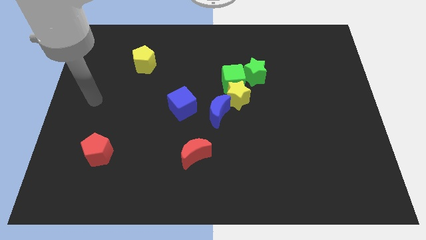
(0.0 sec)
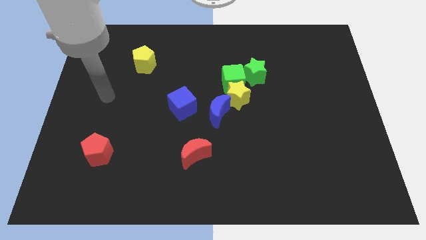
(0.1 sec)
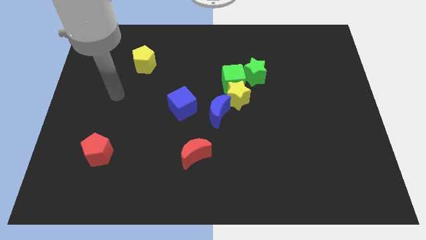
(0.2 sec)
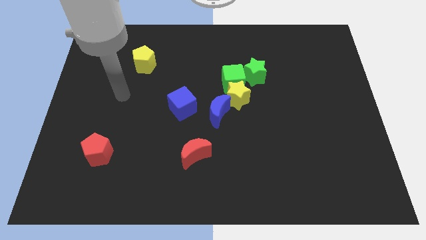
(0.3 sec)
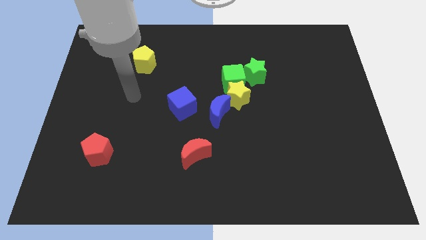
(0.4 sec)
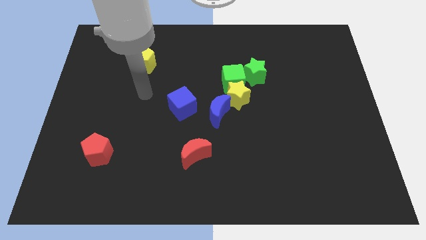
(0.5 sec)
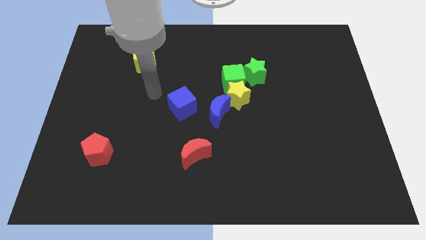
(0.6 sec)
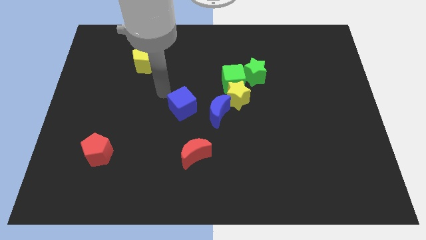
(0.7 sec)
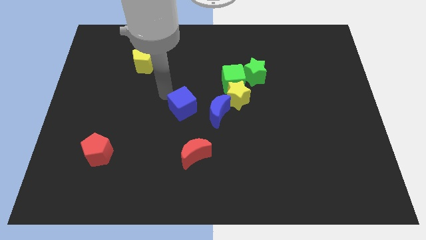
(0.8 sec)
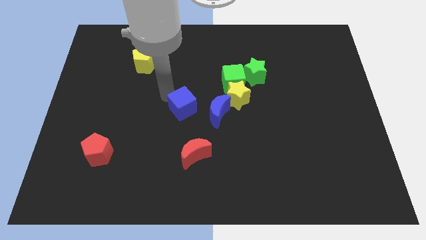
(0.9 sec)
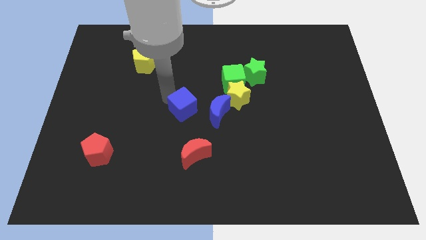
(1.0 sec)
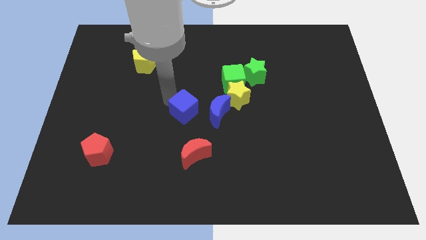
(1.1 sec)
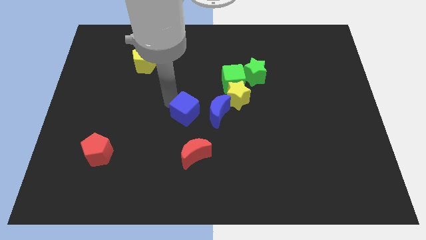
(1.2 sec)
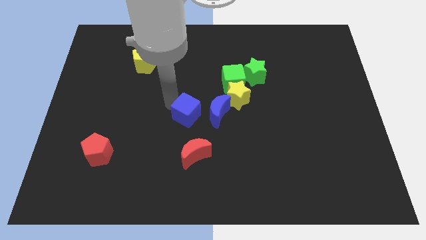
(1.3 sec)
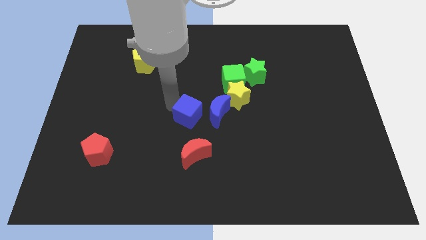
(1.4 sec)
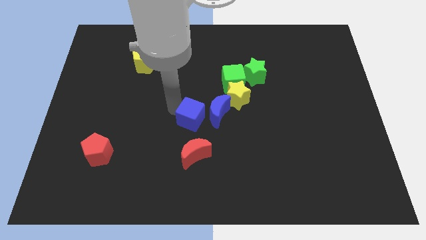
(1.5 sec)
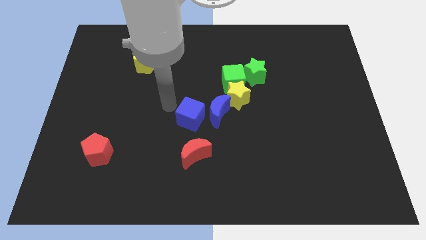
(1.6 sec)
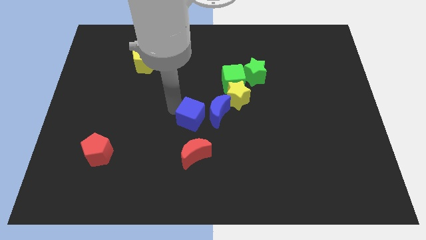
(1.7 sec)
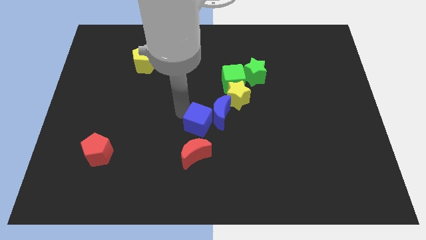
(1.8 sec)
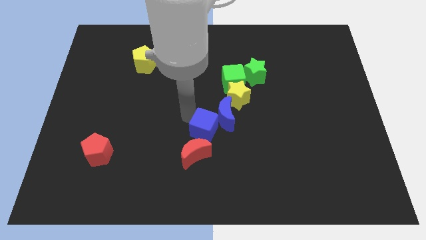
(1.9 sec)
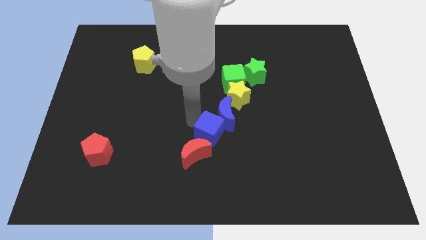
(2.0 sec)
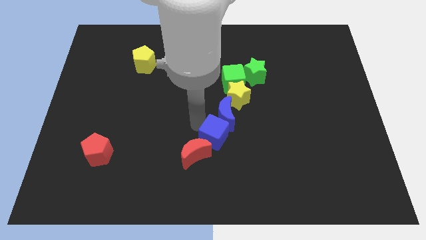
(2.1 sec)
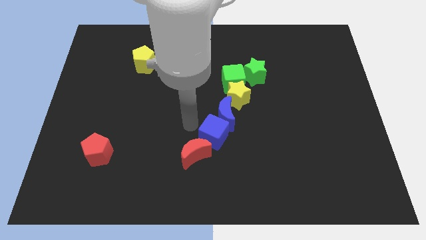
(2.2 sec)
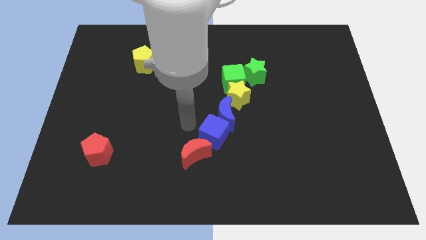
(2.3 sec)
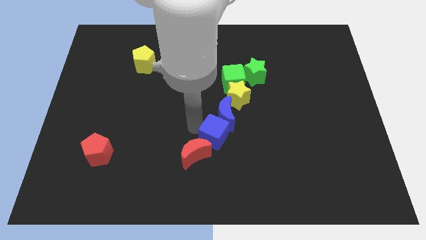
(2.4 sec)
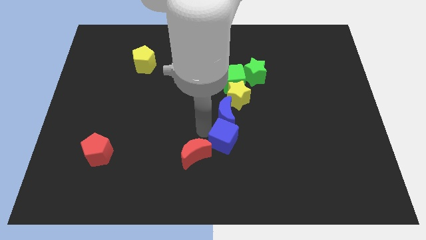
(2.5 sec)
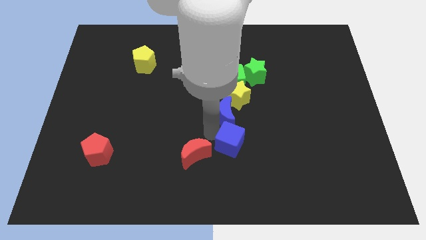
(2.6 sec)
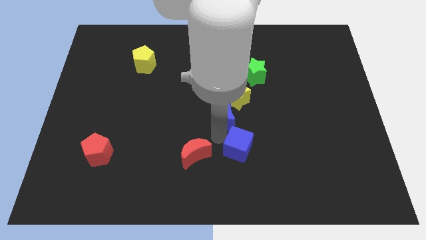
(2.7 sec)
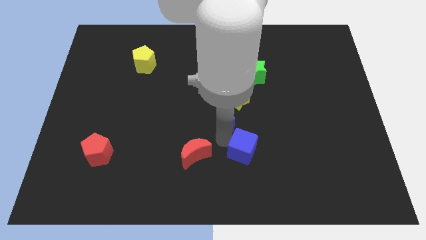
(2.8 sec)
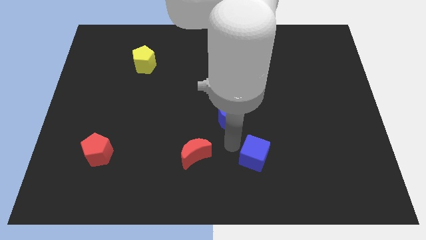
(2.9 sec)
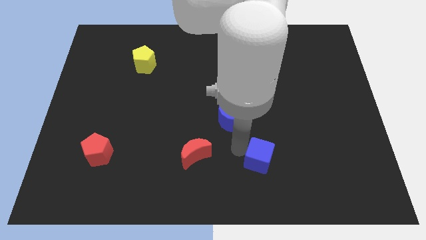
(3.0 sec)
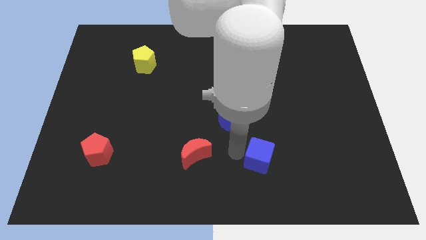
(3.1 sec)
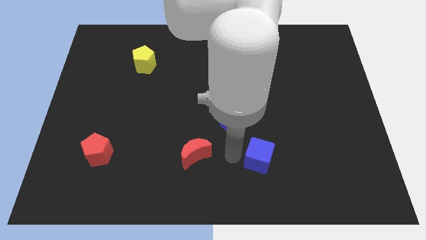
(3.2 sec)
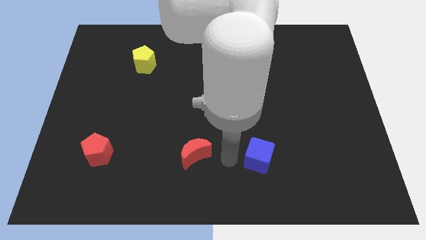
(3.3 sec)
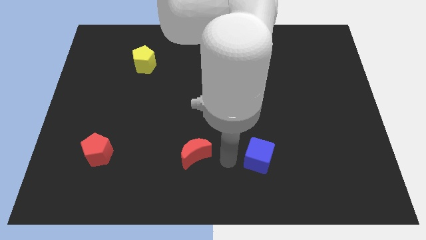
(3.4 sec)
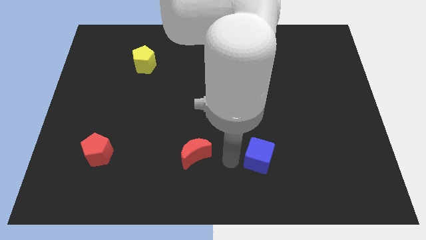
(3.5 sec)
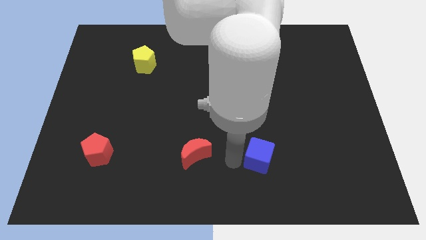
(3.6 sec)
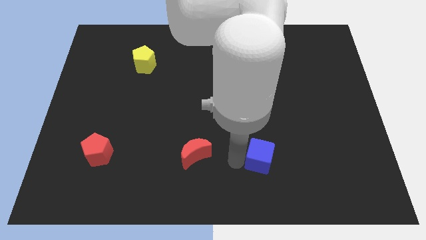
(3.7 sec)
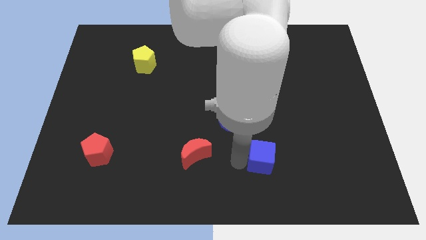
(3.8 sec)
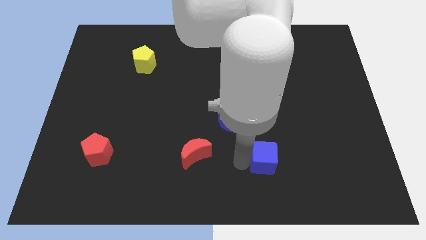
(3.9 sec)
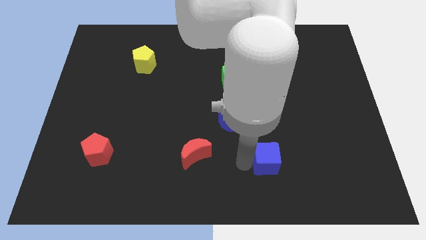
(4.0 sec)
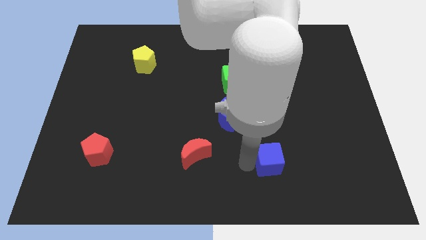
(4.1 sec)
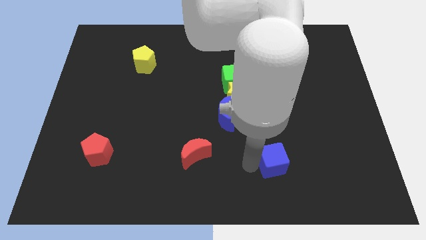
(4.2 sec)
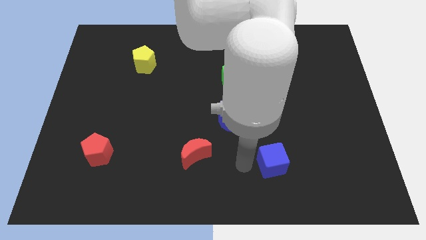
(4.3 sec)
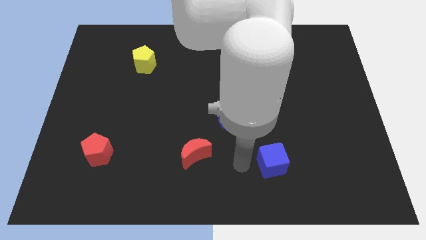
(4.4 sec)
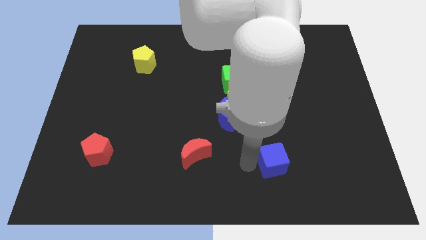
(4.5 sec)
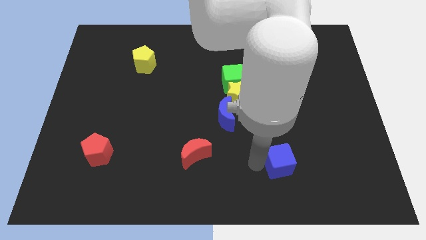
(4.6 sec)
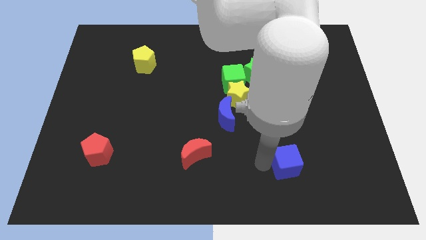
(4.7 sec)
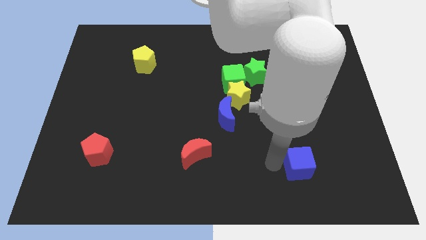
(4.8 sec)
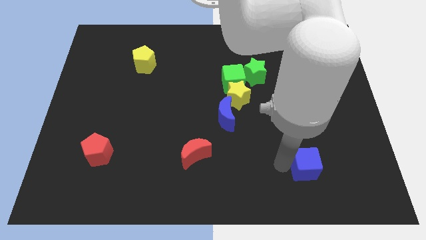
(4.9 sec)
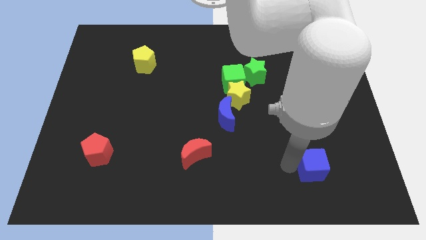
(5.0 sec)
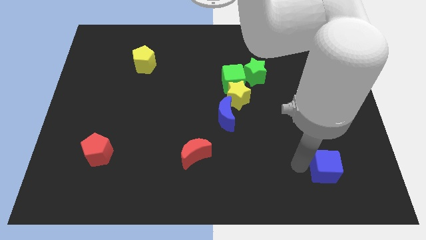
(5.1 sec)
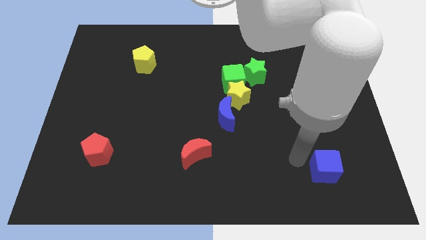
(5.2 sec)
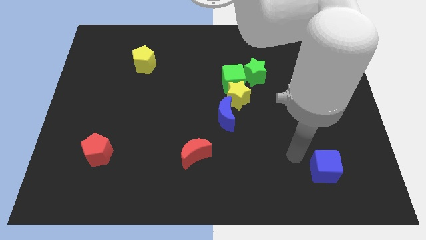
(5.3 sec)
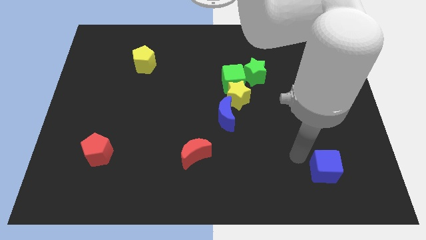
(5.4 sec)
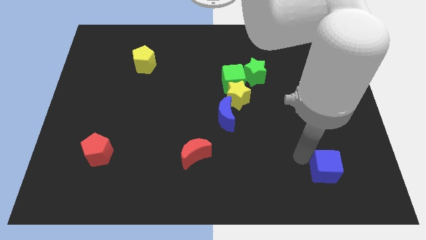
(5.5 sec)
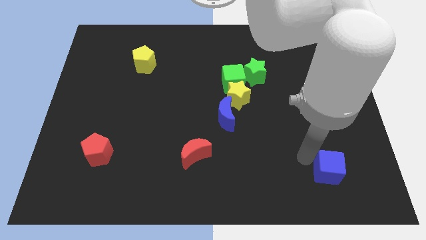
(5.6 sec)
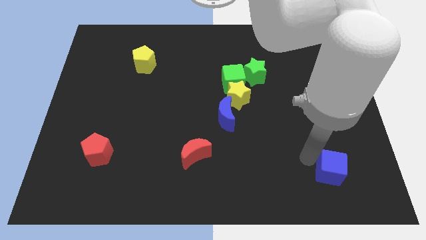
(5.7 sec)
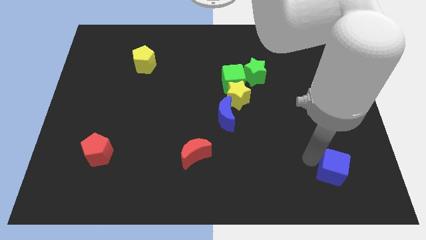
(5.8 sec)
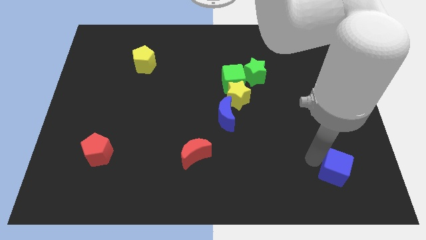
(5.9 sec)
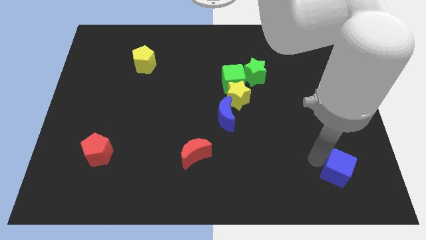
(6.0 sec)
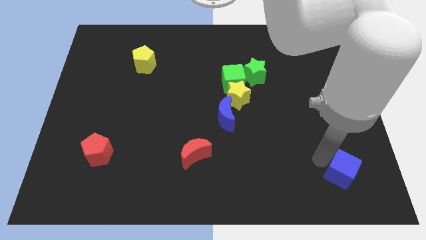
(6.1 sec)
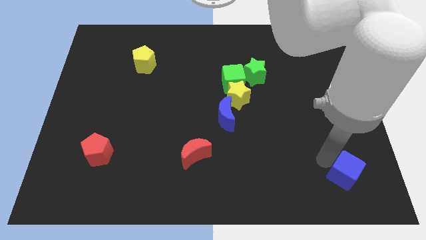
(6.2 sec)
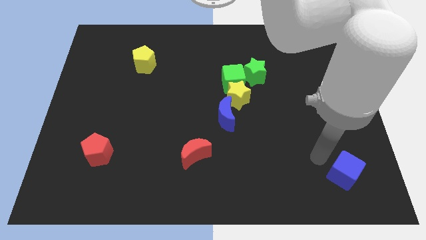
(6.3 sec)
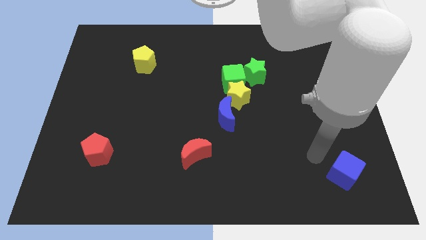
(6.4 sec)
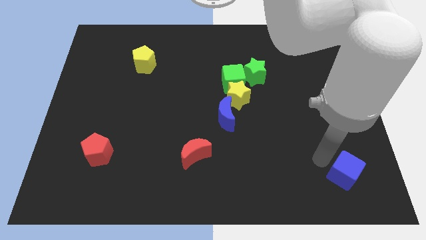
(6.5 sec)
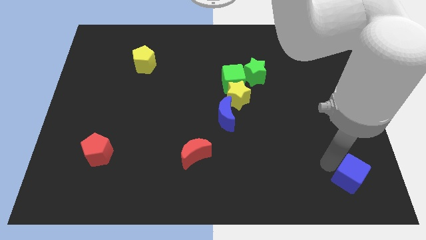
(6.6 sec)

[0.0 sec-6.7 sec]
push the blue cube to the bottom right of the board
